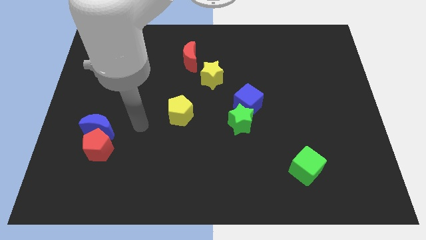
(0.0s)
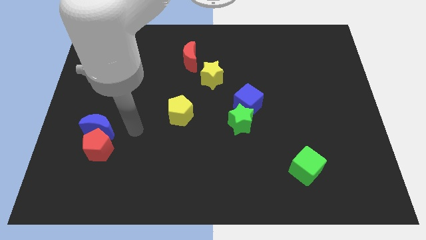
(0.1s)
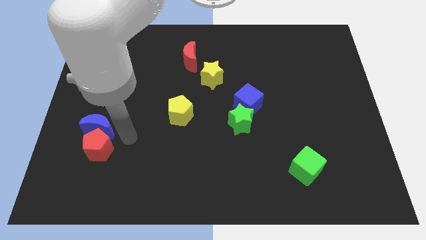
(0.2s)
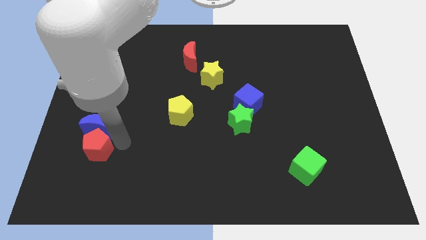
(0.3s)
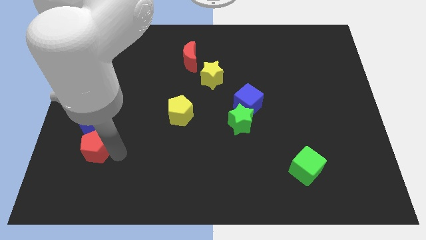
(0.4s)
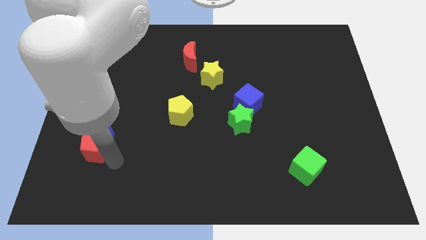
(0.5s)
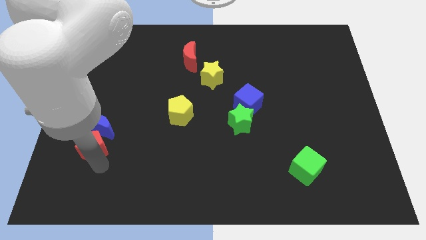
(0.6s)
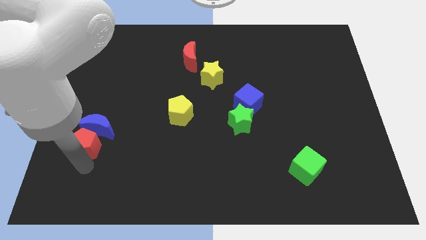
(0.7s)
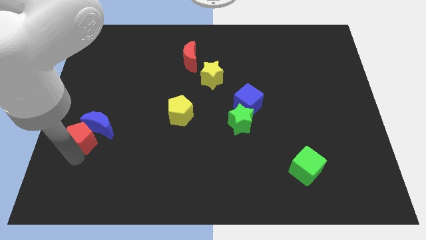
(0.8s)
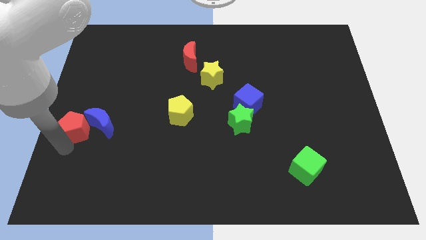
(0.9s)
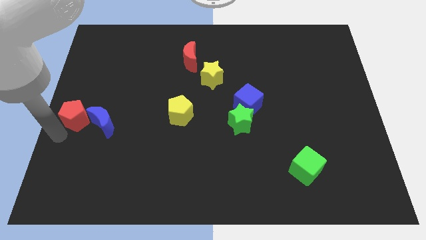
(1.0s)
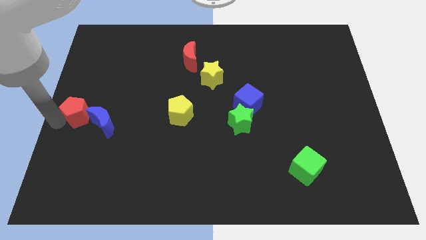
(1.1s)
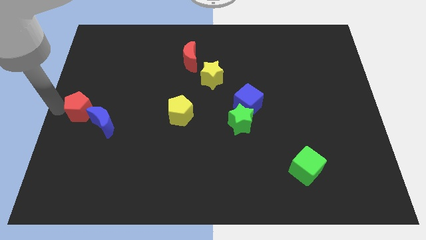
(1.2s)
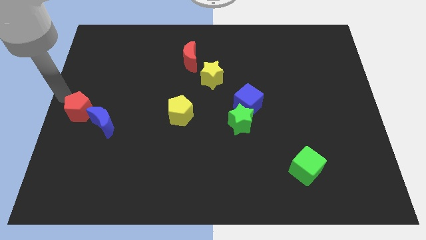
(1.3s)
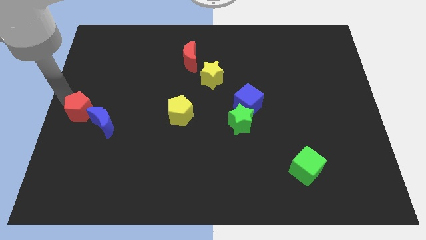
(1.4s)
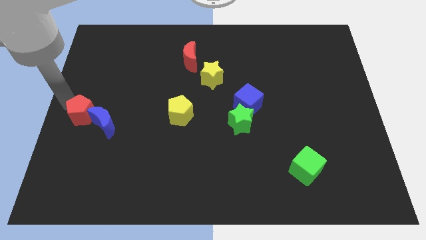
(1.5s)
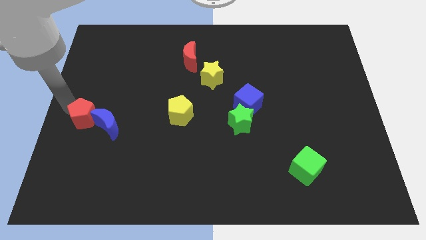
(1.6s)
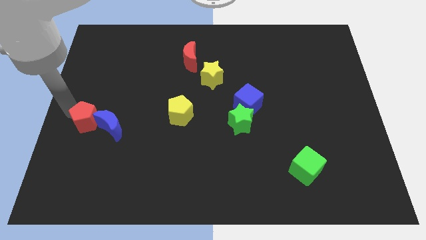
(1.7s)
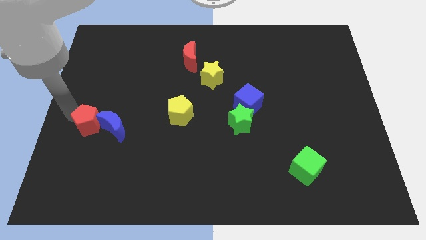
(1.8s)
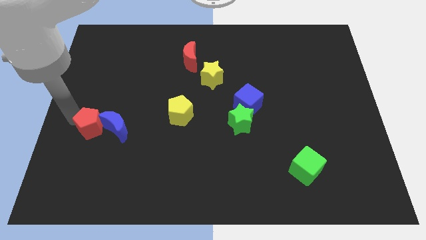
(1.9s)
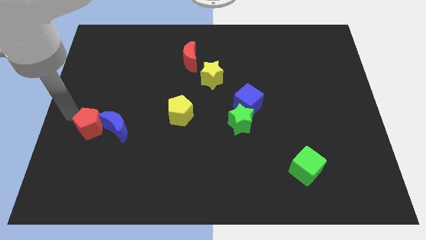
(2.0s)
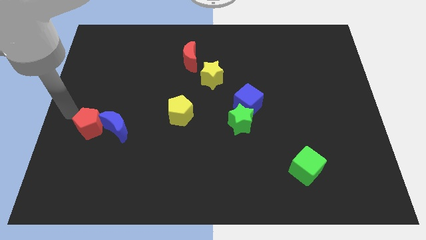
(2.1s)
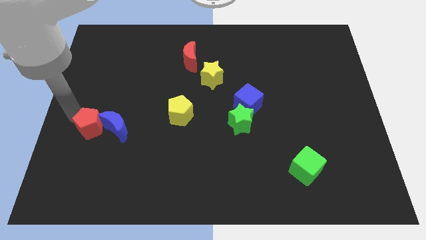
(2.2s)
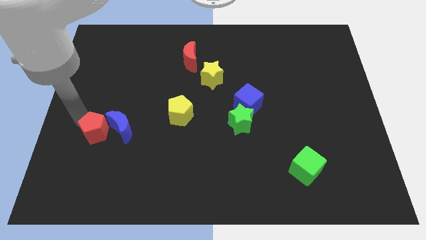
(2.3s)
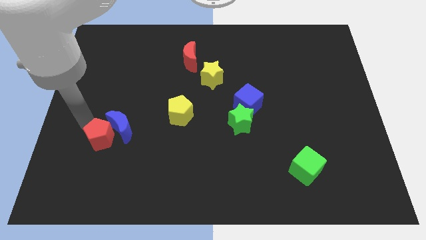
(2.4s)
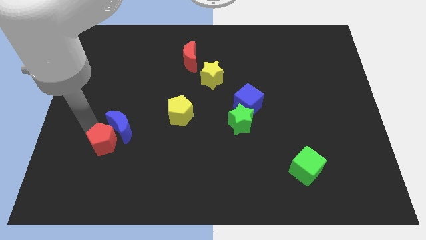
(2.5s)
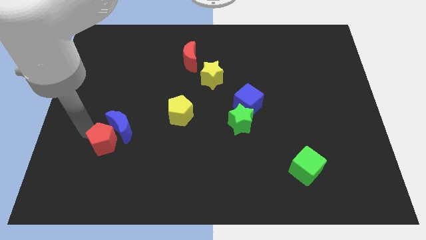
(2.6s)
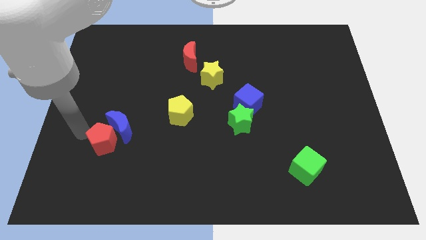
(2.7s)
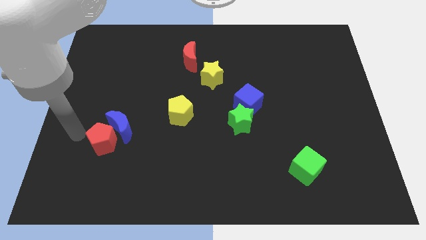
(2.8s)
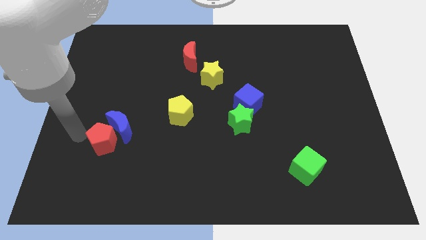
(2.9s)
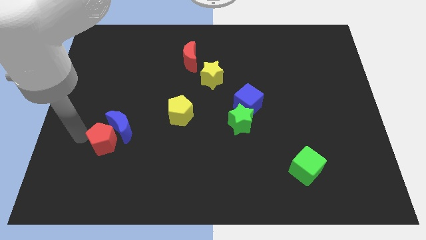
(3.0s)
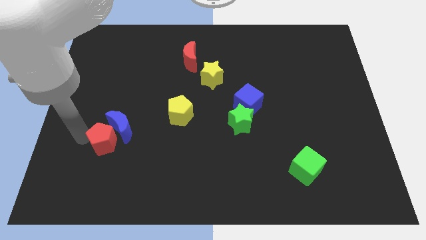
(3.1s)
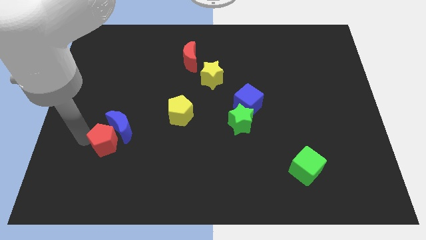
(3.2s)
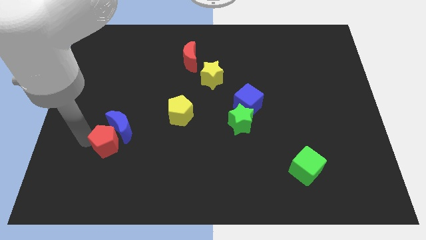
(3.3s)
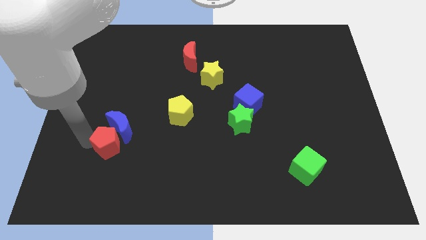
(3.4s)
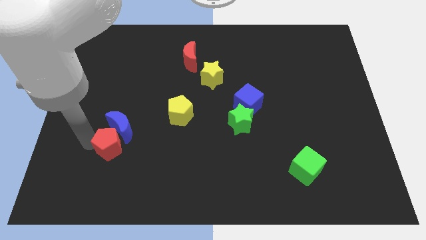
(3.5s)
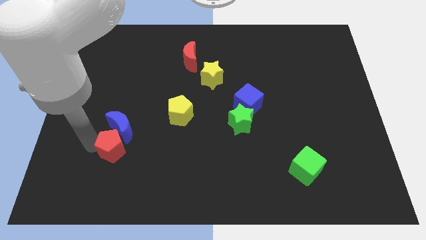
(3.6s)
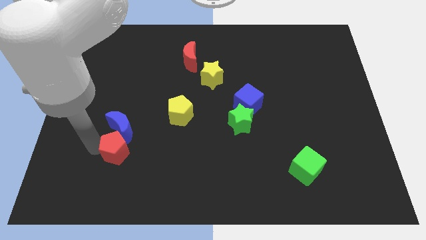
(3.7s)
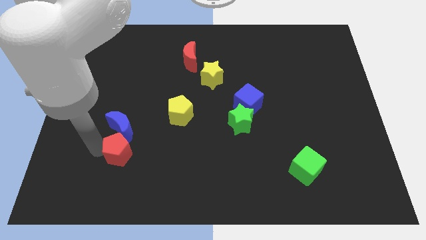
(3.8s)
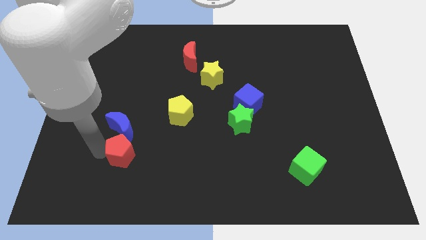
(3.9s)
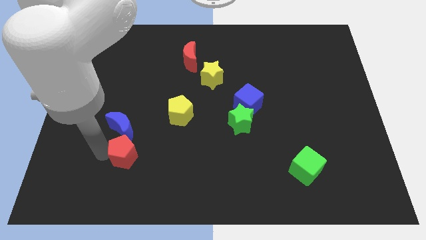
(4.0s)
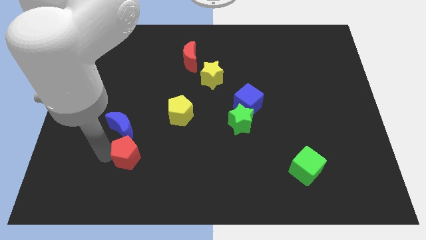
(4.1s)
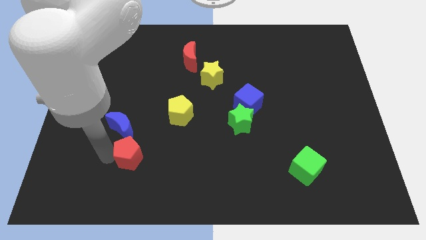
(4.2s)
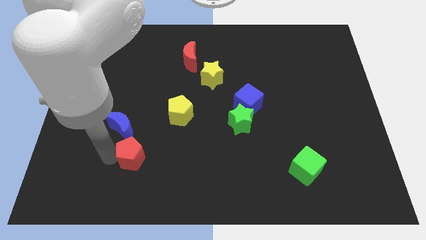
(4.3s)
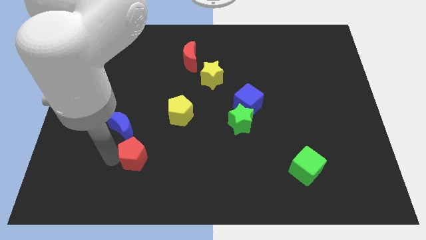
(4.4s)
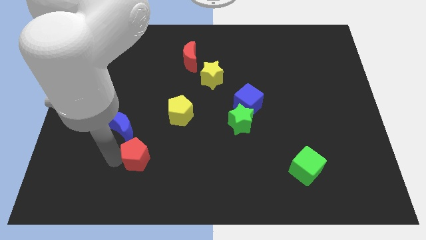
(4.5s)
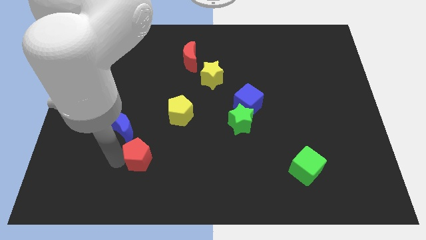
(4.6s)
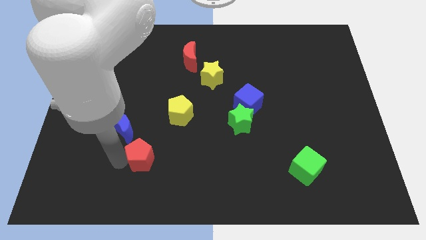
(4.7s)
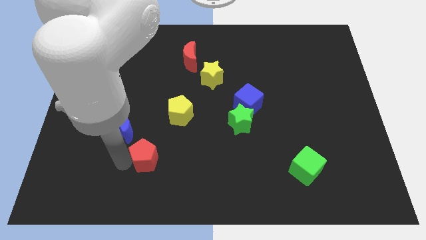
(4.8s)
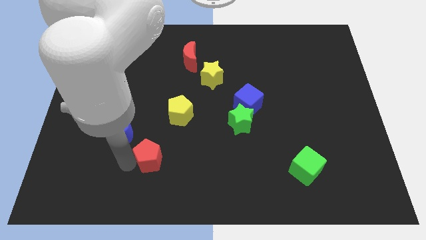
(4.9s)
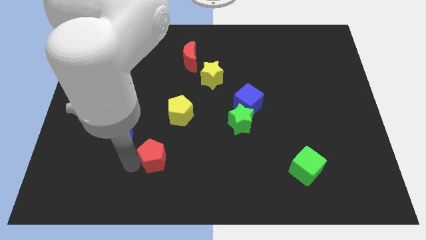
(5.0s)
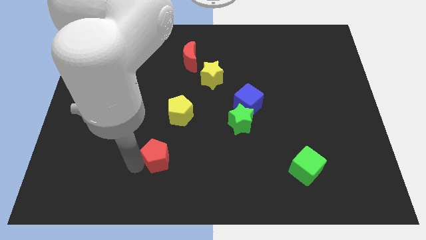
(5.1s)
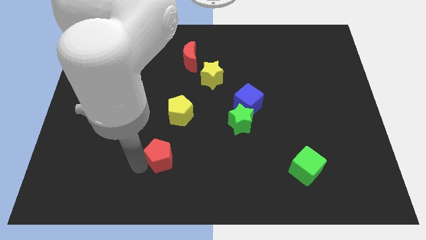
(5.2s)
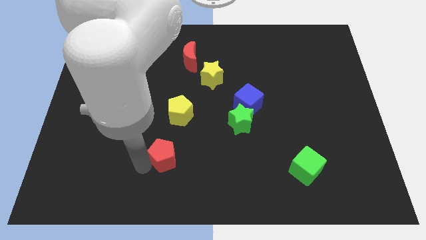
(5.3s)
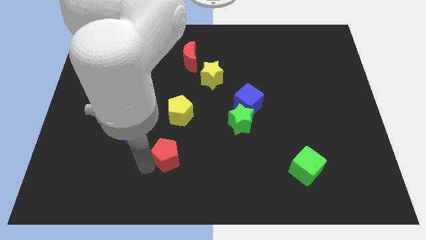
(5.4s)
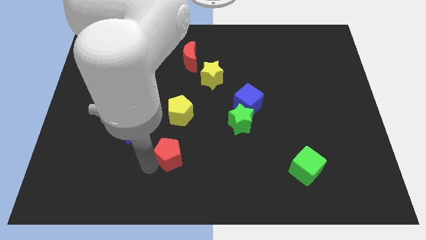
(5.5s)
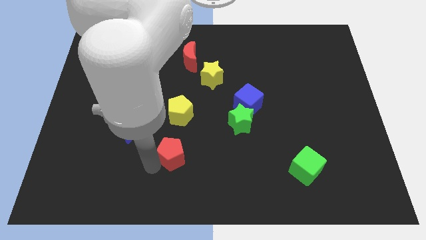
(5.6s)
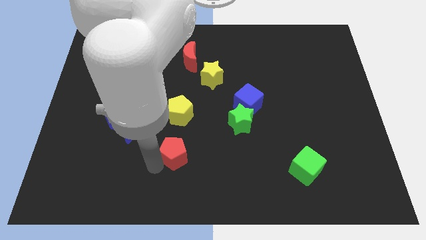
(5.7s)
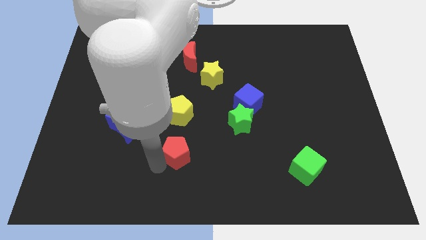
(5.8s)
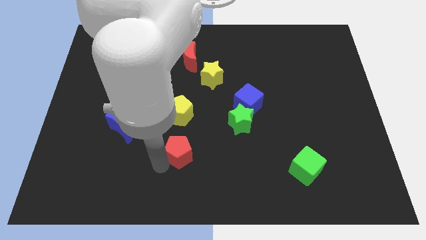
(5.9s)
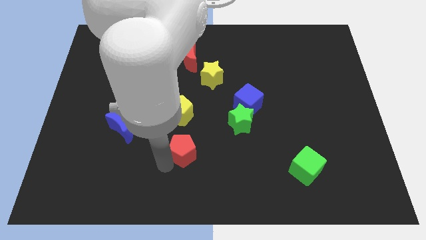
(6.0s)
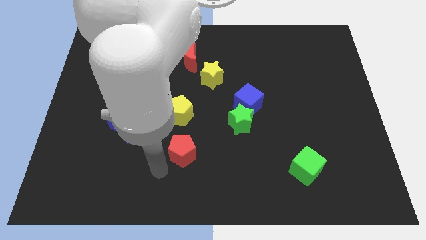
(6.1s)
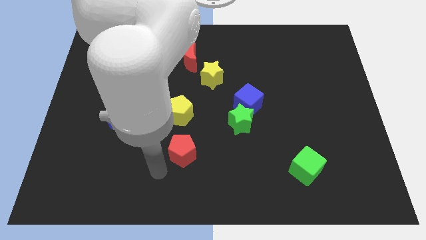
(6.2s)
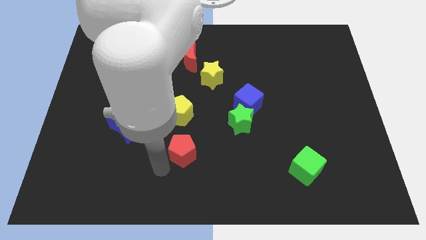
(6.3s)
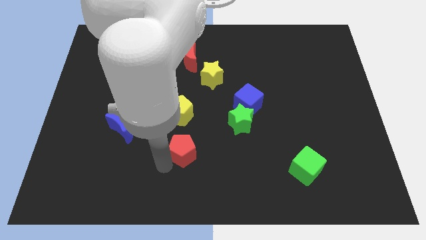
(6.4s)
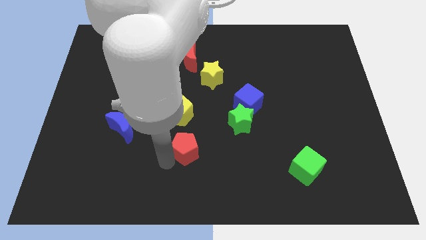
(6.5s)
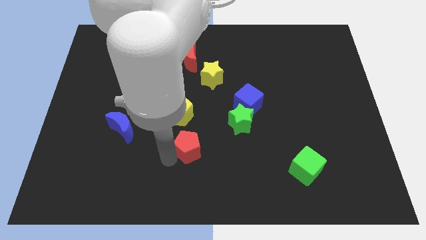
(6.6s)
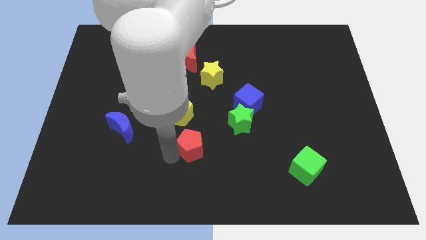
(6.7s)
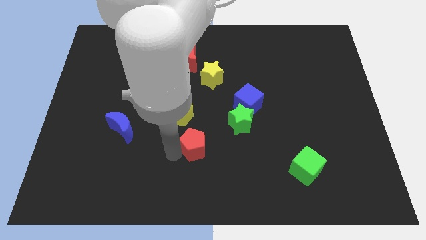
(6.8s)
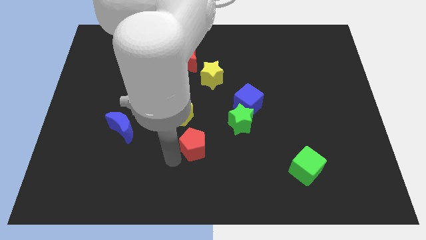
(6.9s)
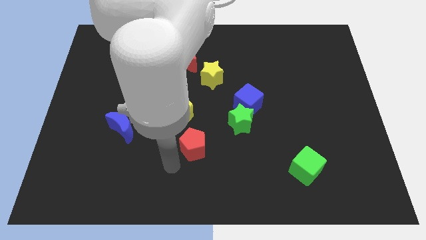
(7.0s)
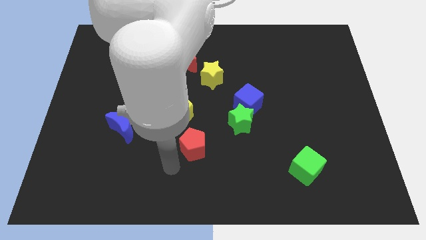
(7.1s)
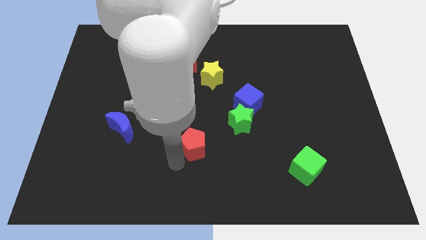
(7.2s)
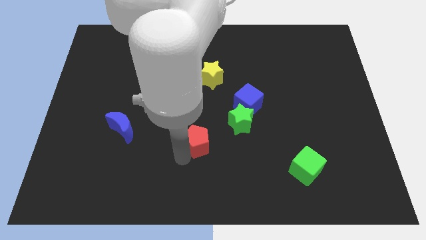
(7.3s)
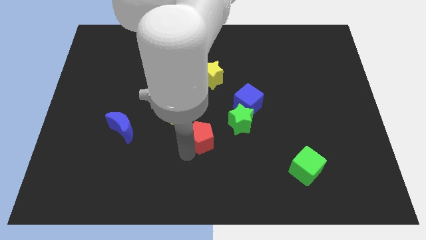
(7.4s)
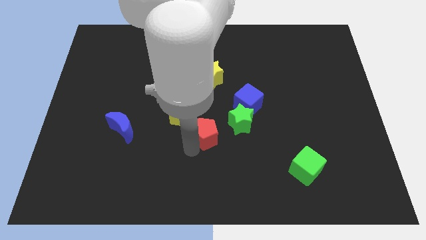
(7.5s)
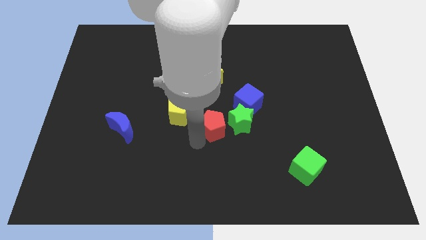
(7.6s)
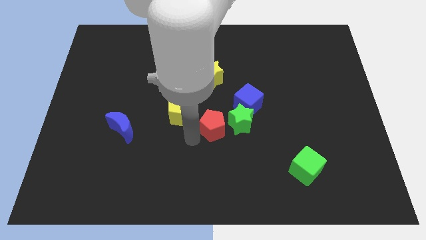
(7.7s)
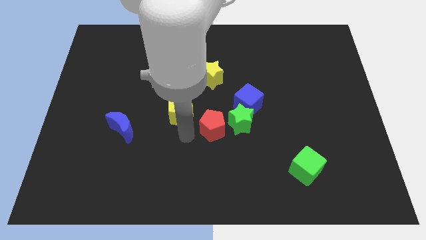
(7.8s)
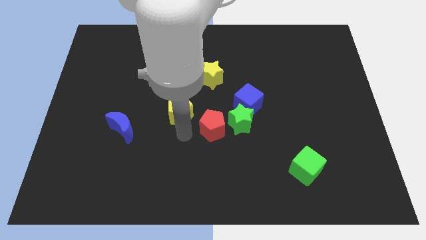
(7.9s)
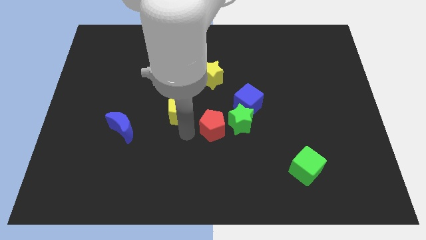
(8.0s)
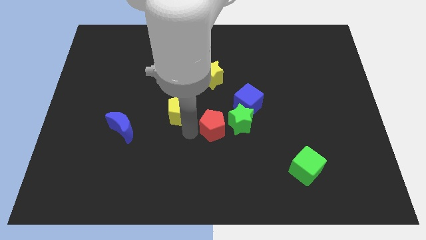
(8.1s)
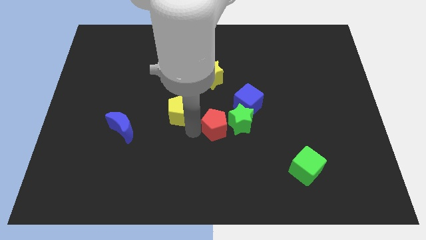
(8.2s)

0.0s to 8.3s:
move the red pentagon to the green star
